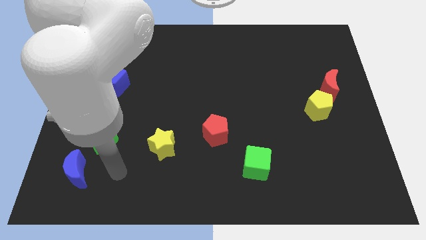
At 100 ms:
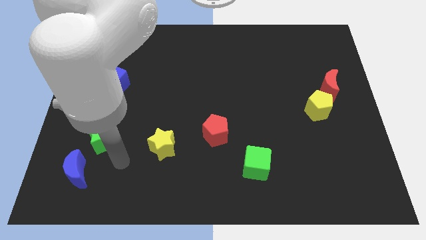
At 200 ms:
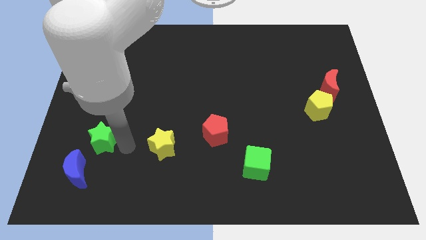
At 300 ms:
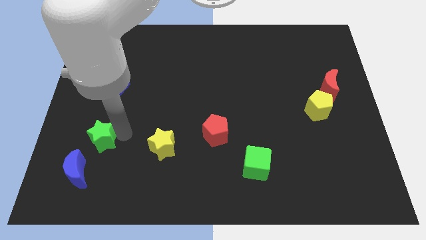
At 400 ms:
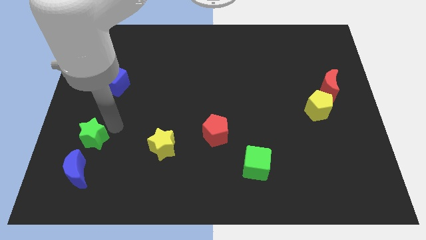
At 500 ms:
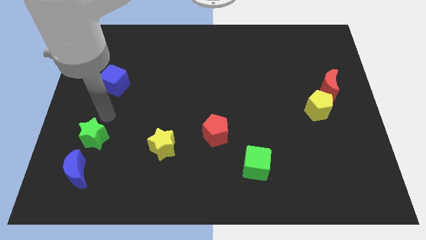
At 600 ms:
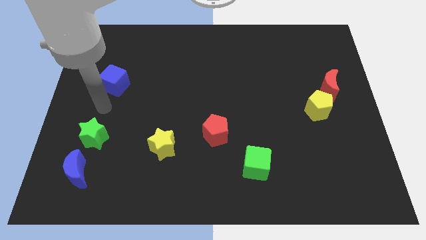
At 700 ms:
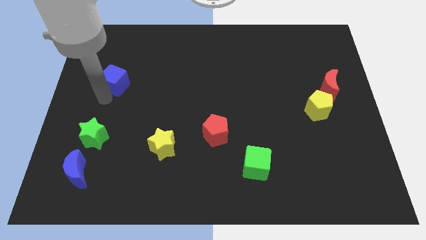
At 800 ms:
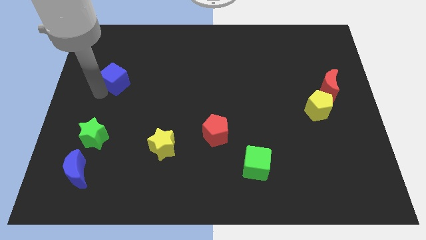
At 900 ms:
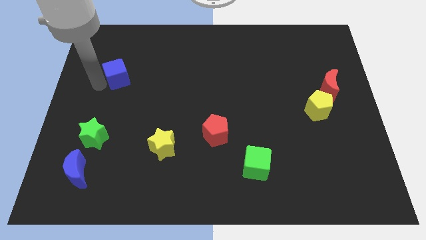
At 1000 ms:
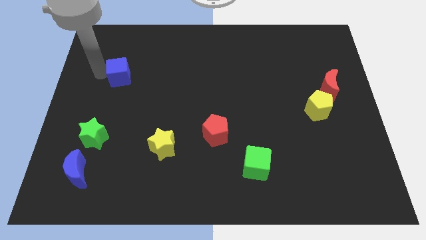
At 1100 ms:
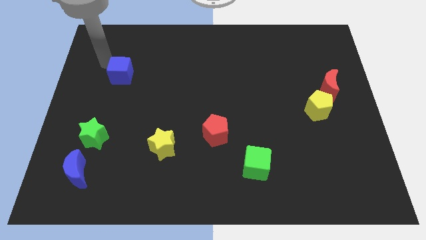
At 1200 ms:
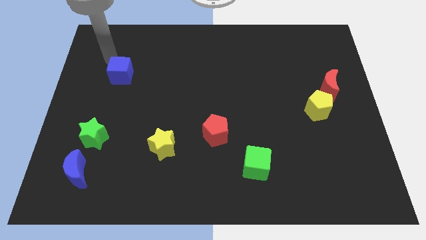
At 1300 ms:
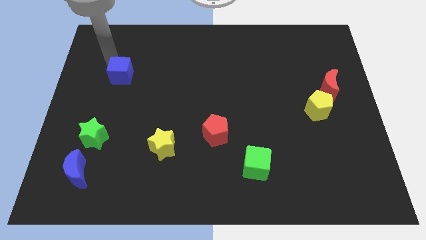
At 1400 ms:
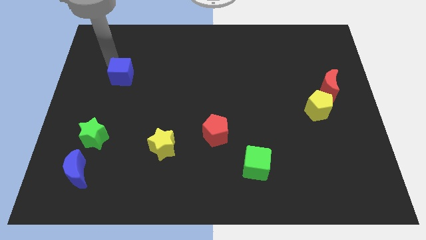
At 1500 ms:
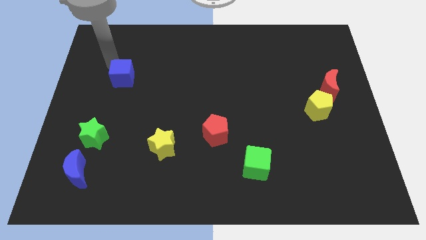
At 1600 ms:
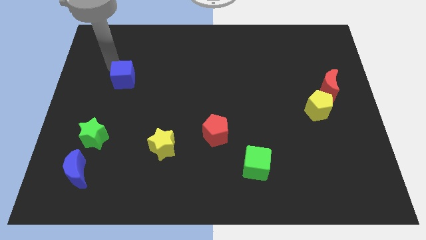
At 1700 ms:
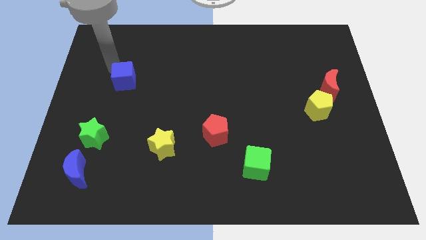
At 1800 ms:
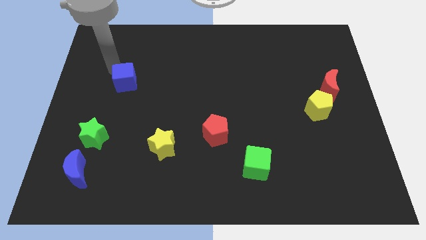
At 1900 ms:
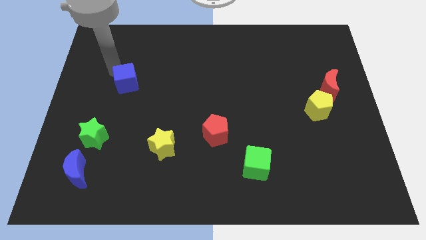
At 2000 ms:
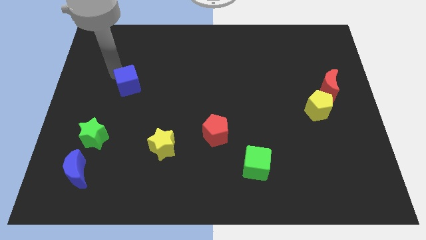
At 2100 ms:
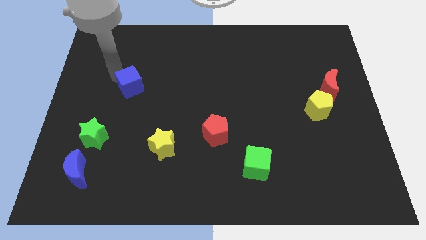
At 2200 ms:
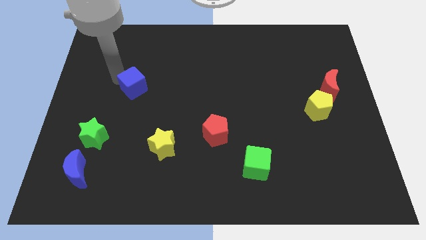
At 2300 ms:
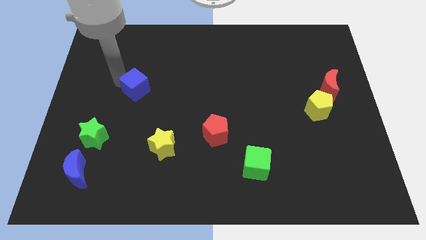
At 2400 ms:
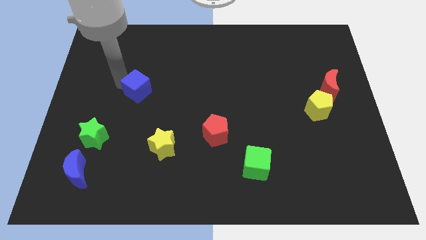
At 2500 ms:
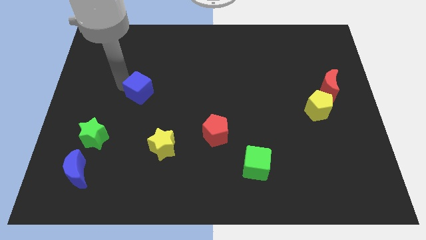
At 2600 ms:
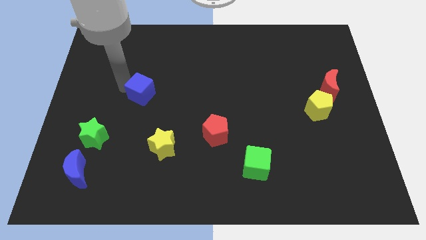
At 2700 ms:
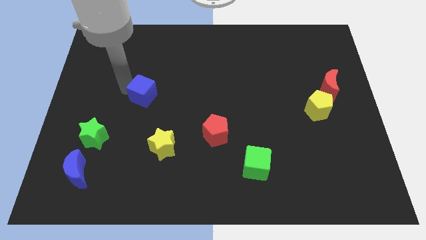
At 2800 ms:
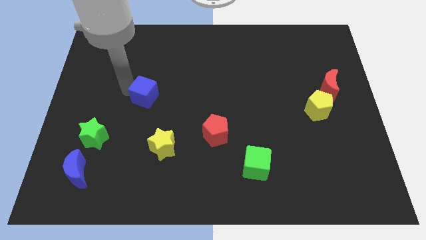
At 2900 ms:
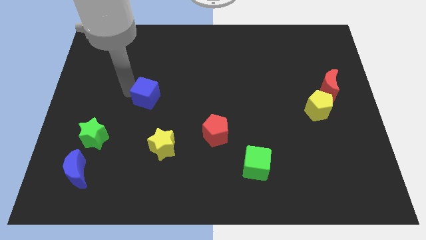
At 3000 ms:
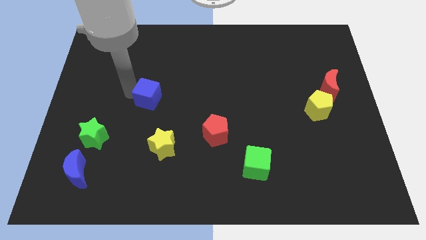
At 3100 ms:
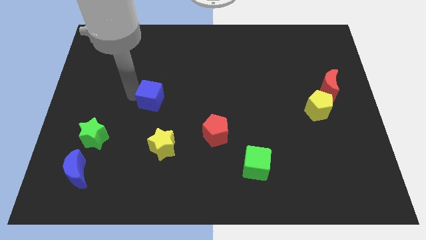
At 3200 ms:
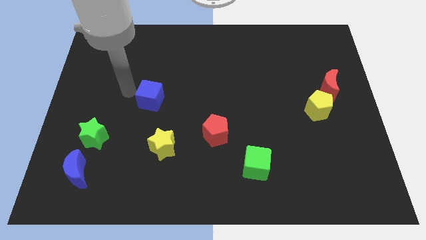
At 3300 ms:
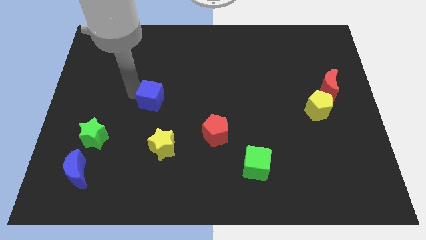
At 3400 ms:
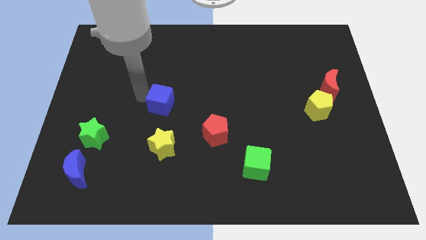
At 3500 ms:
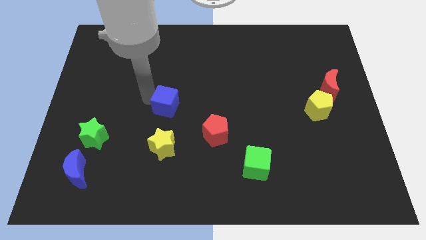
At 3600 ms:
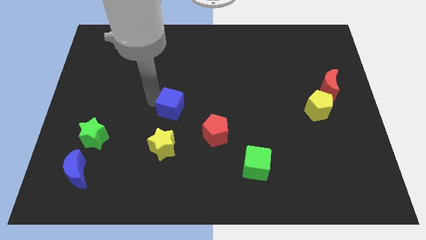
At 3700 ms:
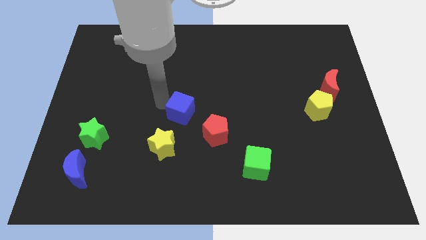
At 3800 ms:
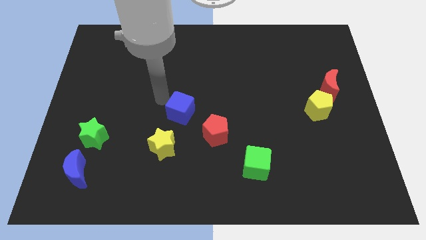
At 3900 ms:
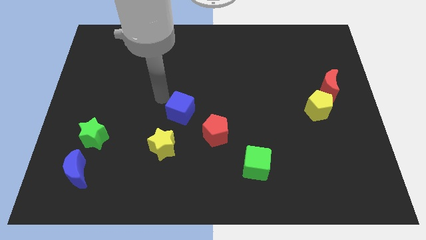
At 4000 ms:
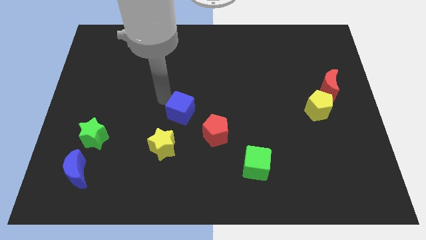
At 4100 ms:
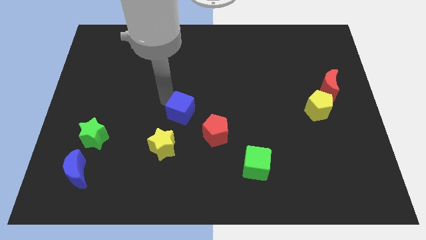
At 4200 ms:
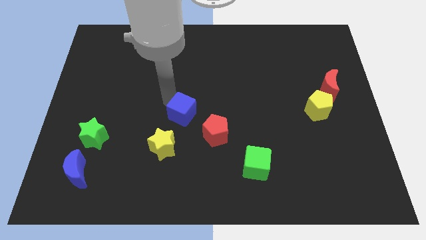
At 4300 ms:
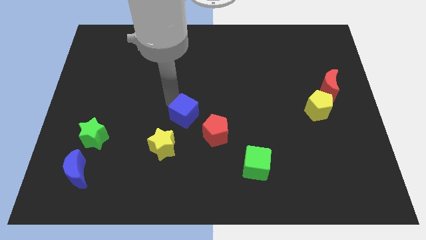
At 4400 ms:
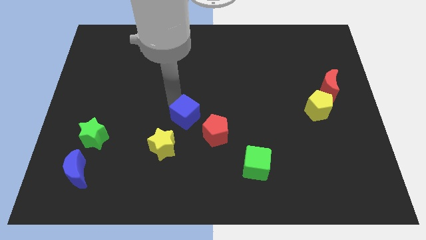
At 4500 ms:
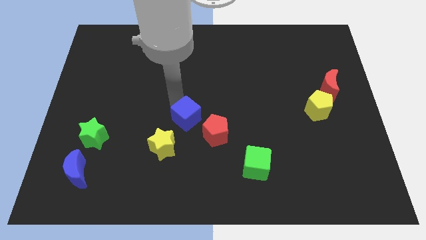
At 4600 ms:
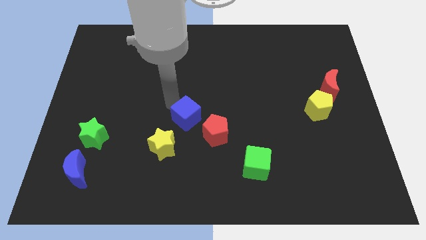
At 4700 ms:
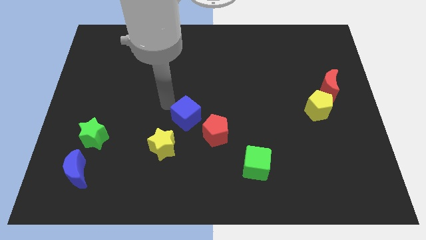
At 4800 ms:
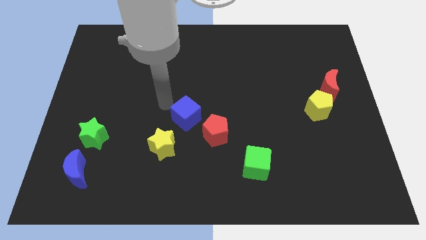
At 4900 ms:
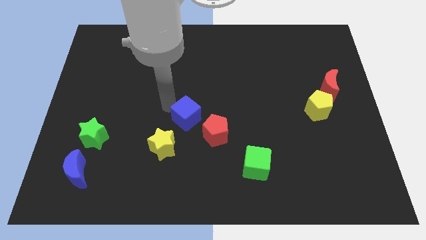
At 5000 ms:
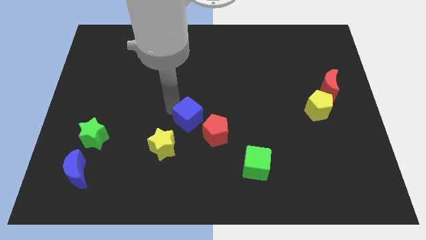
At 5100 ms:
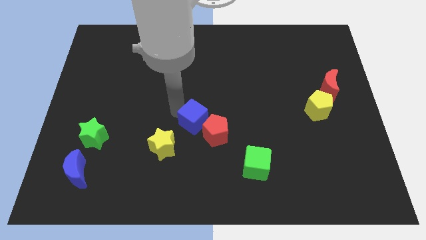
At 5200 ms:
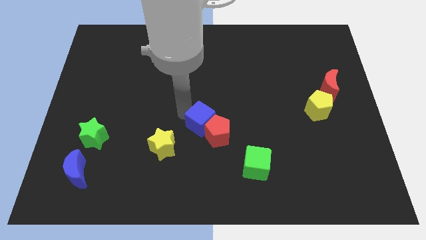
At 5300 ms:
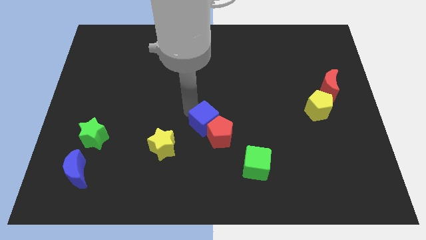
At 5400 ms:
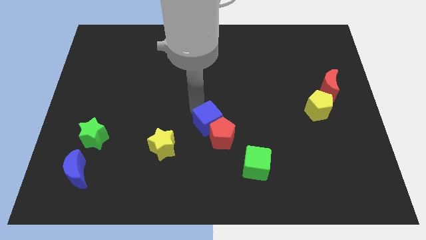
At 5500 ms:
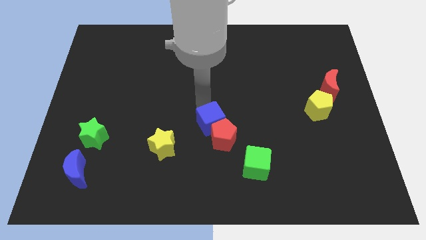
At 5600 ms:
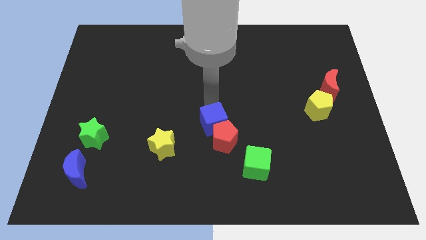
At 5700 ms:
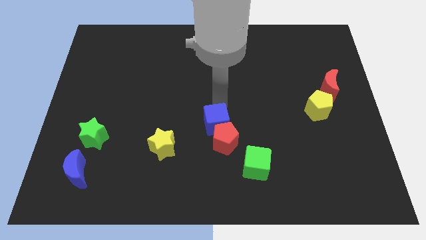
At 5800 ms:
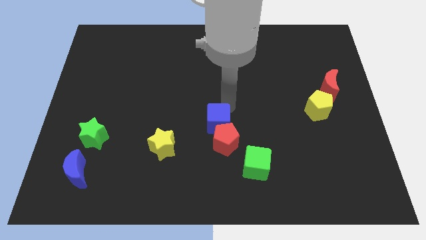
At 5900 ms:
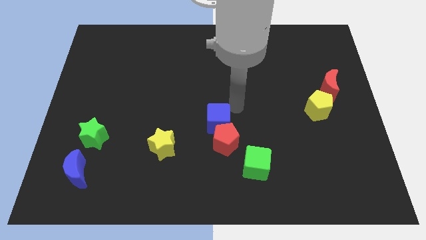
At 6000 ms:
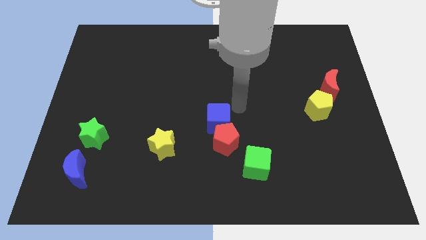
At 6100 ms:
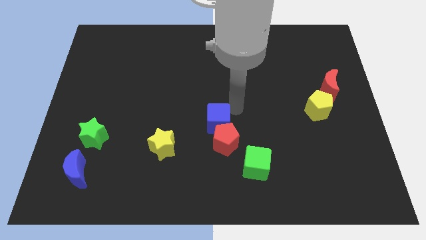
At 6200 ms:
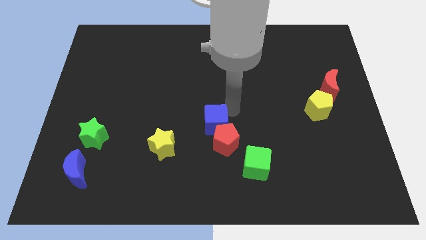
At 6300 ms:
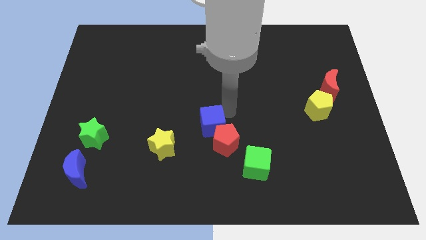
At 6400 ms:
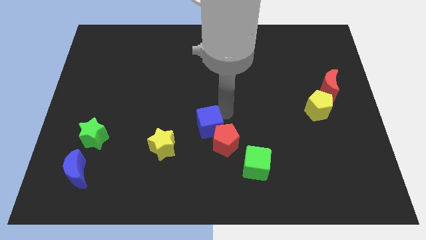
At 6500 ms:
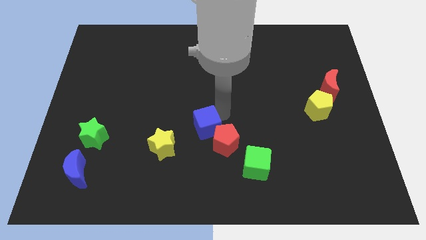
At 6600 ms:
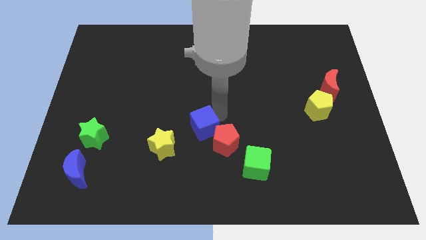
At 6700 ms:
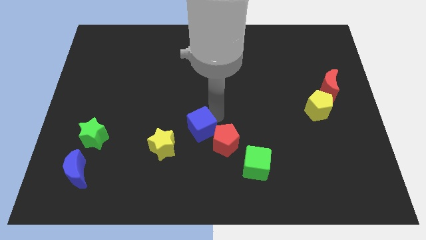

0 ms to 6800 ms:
put the blue cube to the right side of the yellow star
